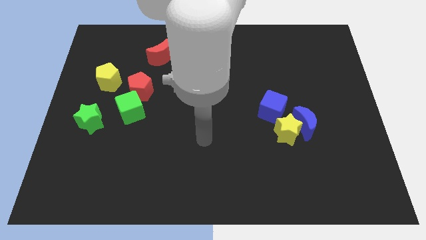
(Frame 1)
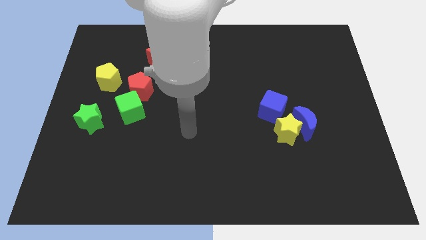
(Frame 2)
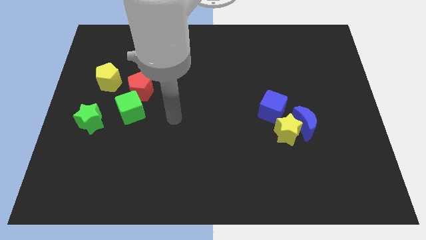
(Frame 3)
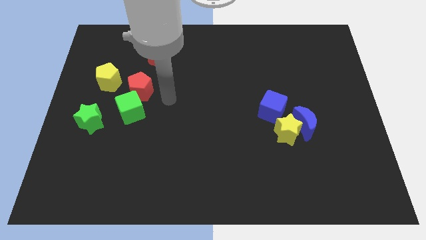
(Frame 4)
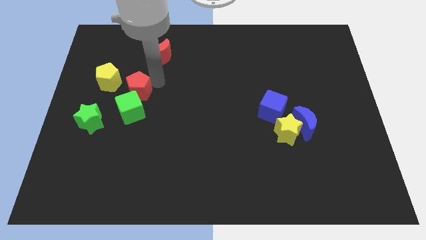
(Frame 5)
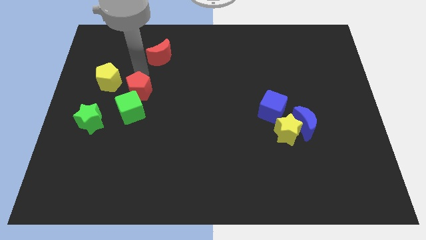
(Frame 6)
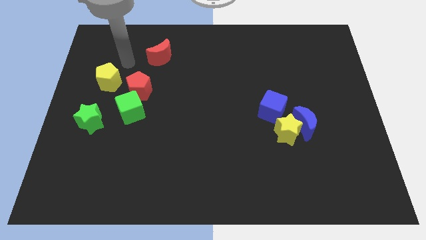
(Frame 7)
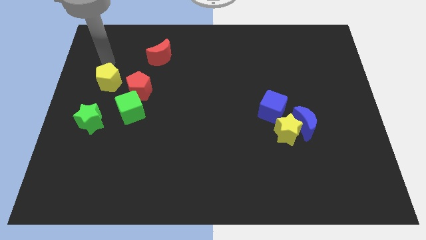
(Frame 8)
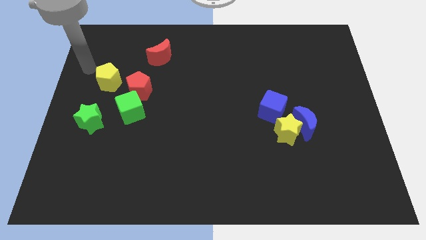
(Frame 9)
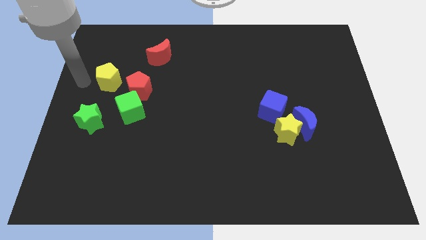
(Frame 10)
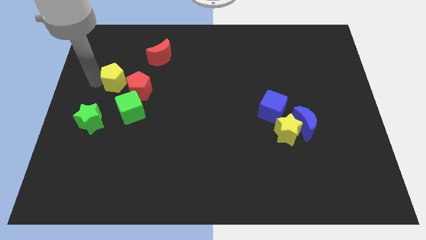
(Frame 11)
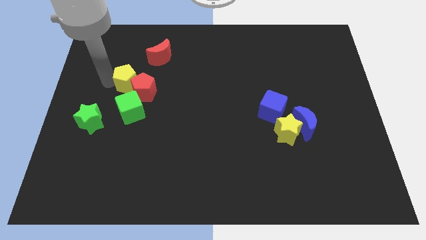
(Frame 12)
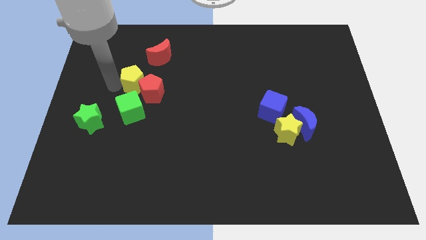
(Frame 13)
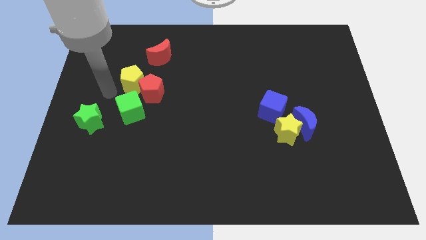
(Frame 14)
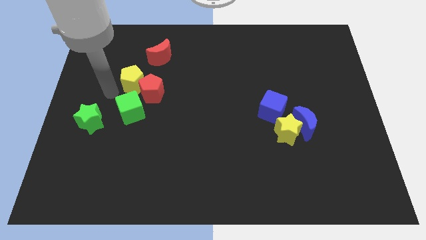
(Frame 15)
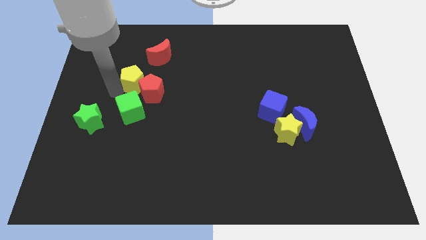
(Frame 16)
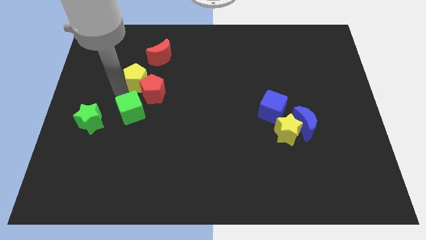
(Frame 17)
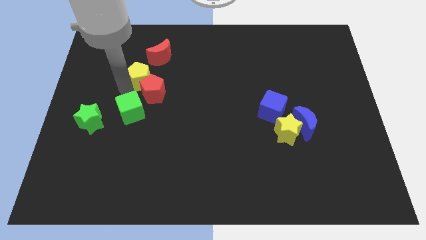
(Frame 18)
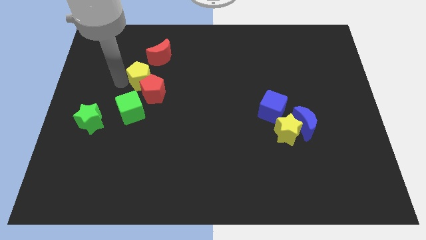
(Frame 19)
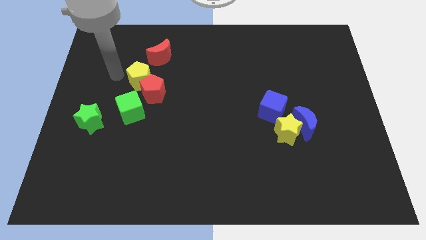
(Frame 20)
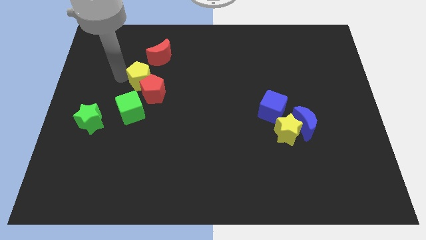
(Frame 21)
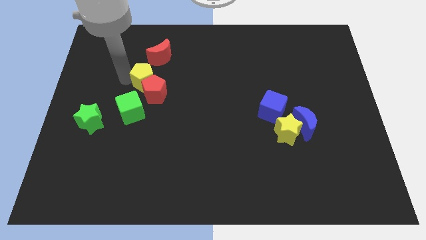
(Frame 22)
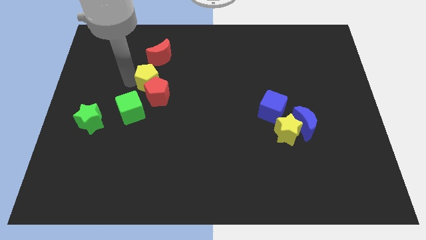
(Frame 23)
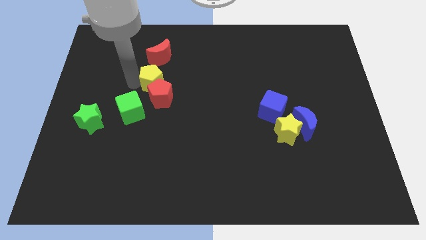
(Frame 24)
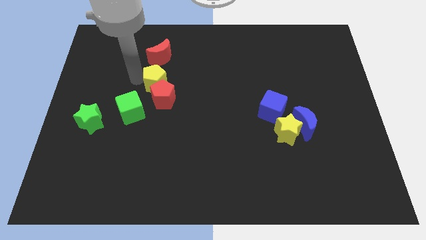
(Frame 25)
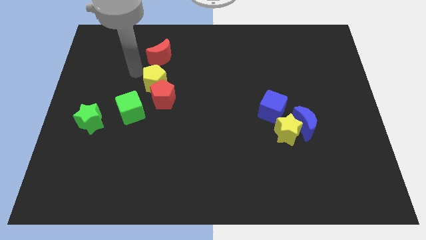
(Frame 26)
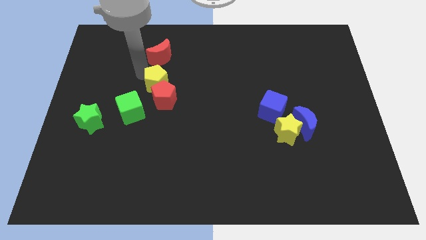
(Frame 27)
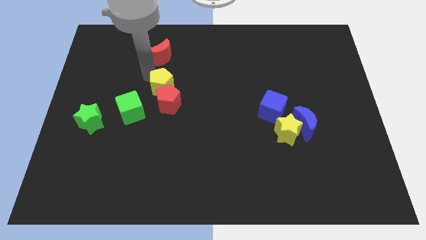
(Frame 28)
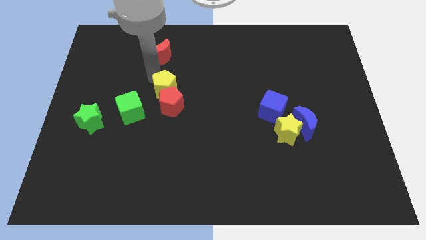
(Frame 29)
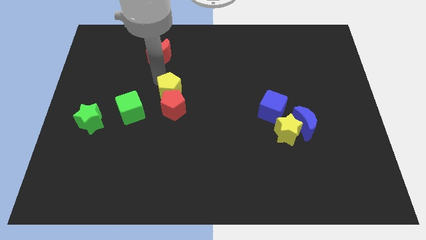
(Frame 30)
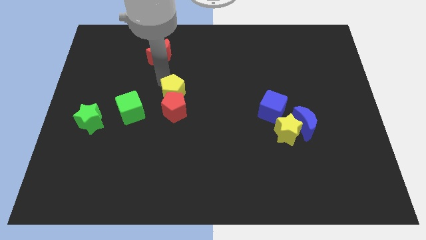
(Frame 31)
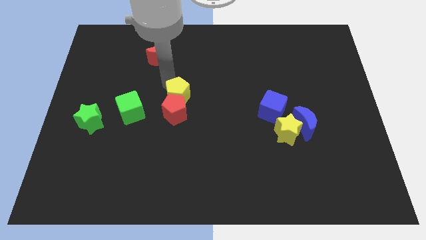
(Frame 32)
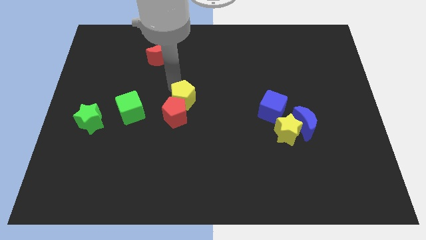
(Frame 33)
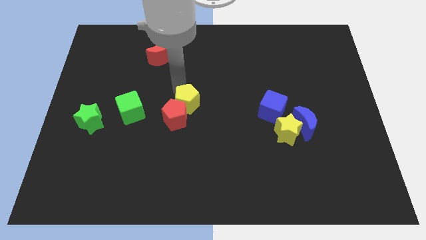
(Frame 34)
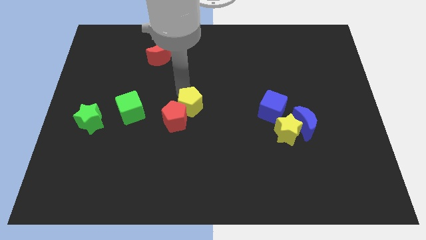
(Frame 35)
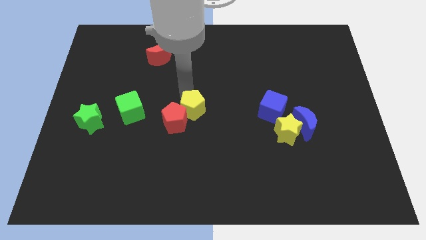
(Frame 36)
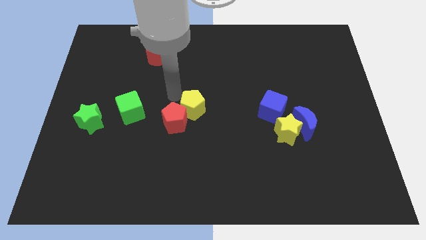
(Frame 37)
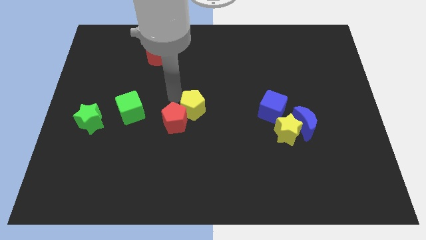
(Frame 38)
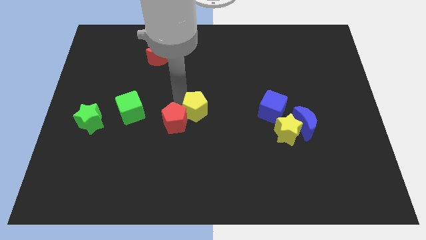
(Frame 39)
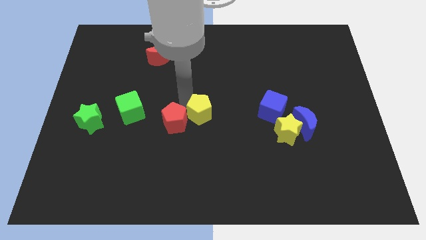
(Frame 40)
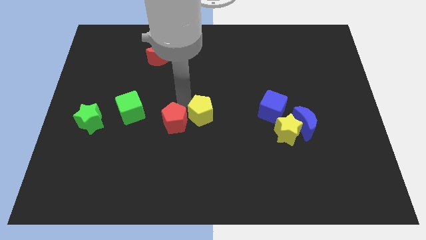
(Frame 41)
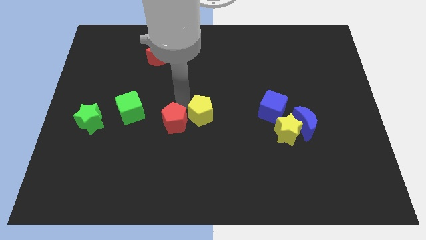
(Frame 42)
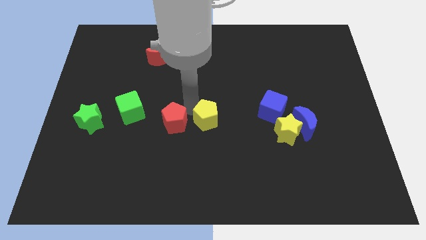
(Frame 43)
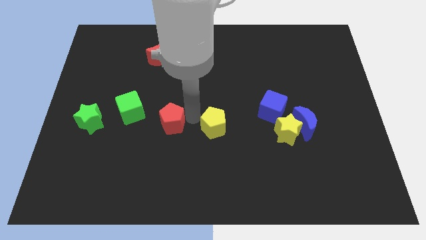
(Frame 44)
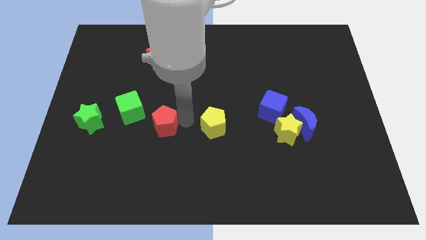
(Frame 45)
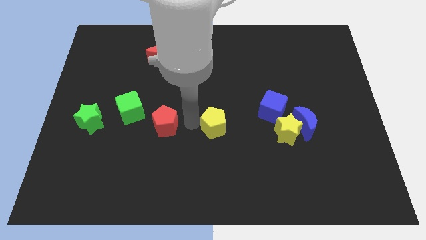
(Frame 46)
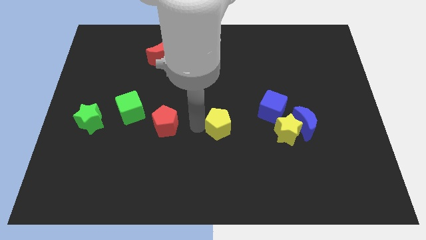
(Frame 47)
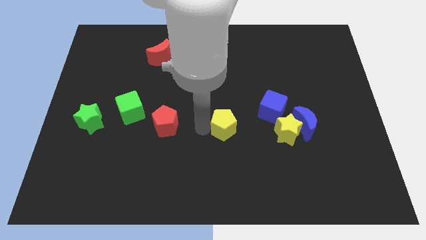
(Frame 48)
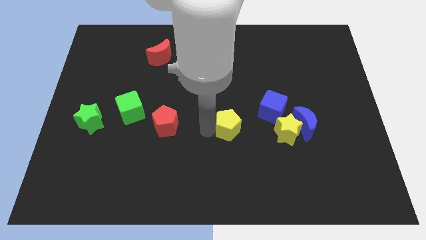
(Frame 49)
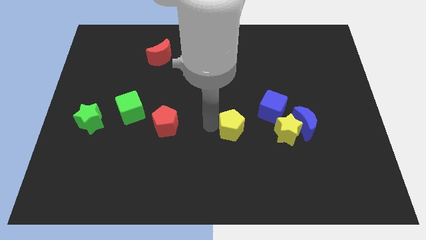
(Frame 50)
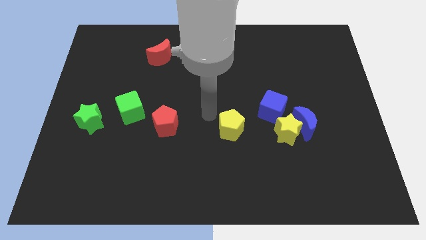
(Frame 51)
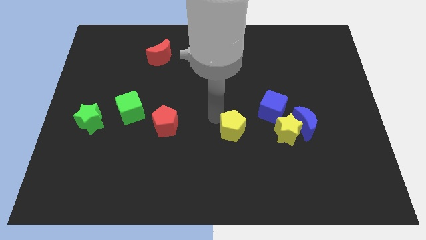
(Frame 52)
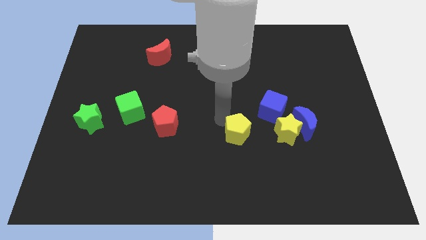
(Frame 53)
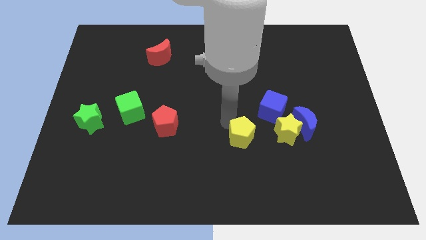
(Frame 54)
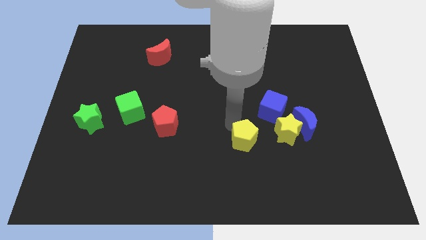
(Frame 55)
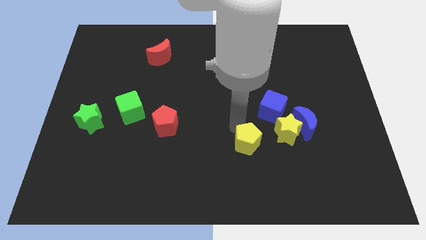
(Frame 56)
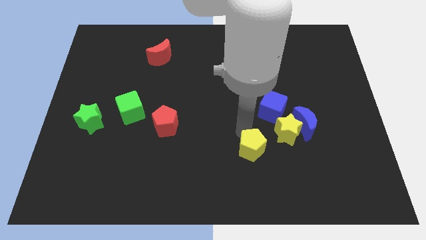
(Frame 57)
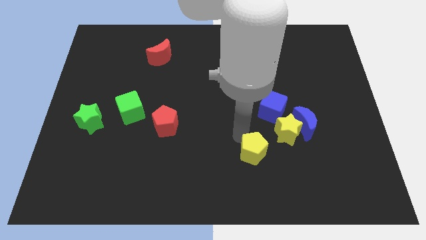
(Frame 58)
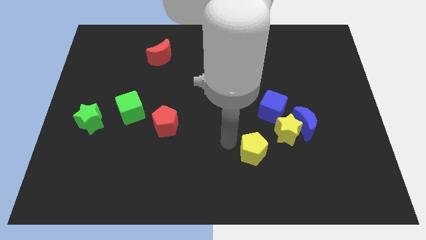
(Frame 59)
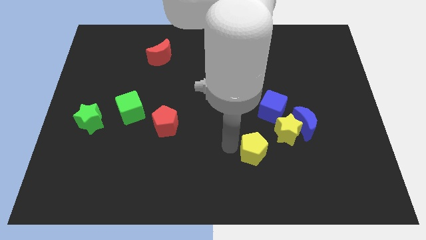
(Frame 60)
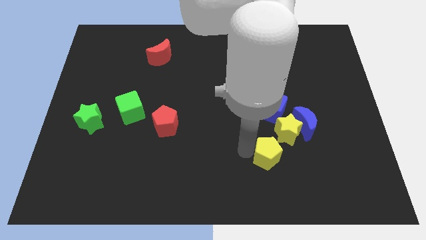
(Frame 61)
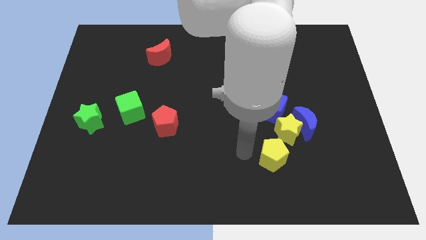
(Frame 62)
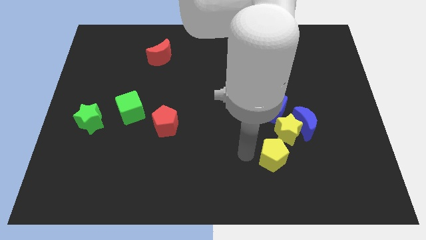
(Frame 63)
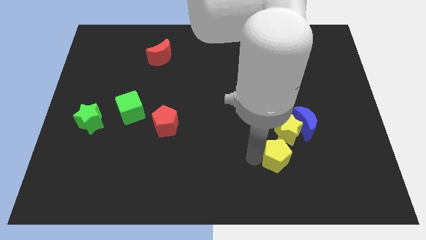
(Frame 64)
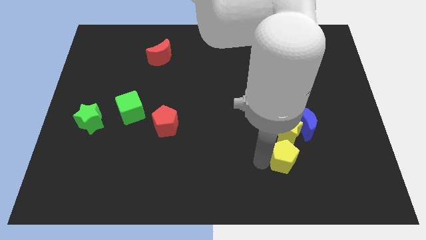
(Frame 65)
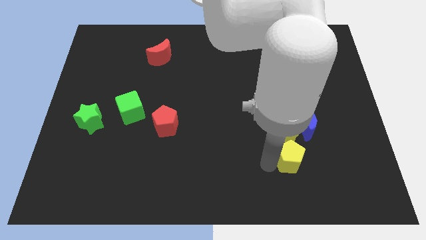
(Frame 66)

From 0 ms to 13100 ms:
put the yellow pentagon to the bottom side of the blue moon

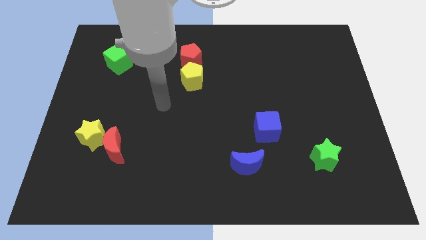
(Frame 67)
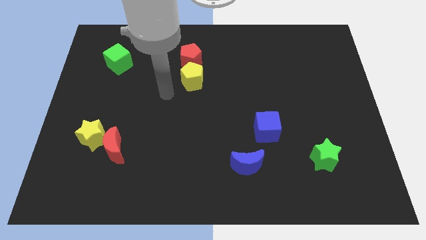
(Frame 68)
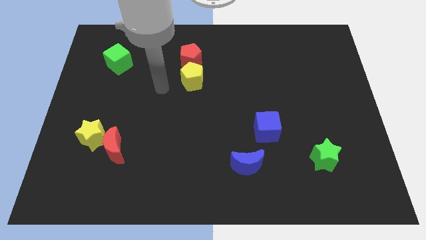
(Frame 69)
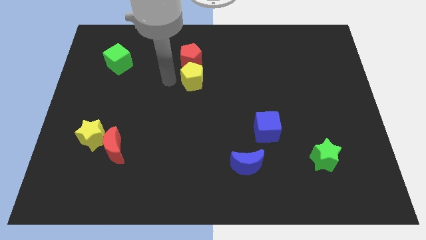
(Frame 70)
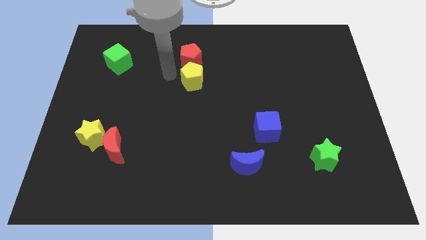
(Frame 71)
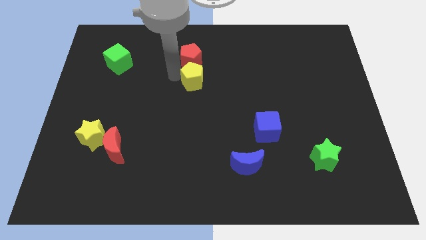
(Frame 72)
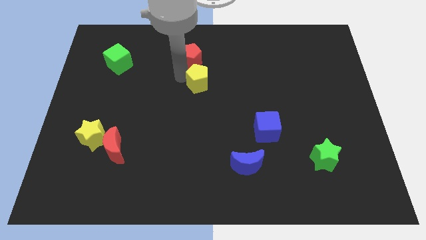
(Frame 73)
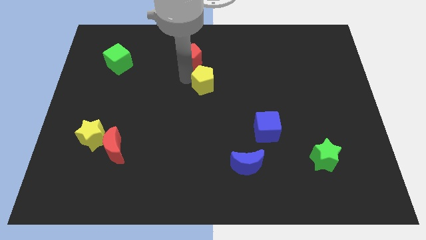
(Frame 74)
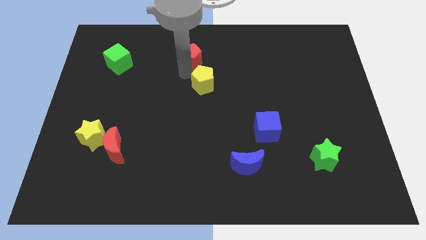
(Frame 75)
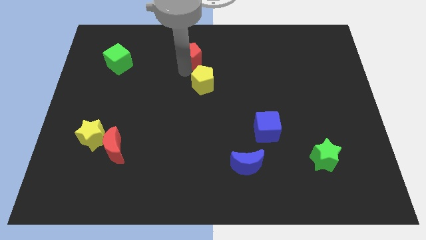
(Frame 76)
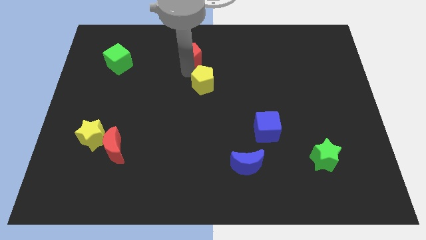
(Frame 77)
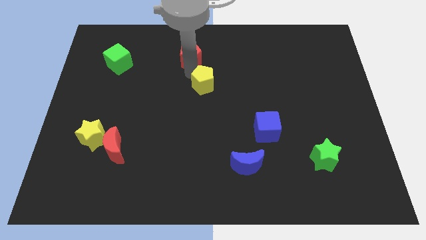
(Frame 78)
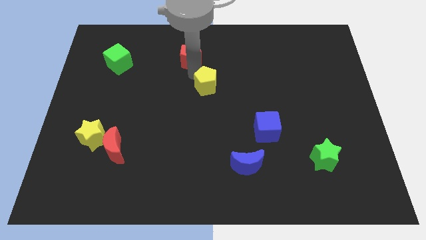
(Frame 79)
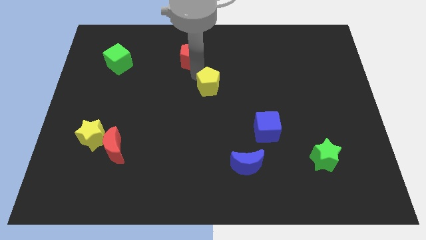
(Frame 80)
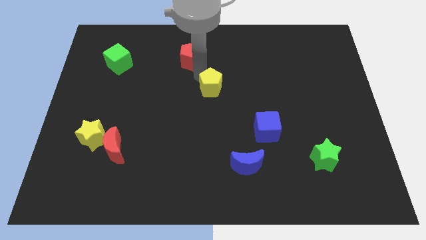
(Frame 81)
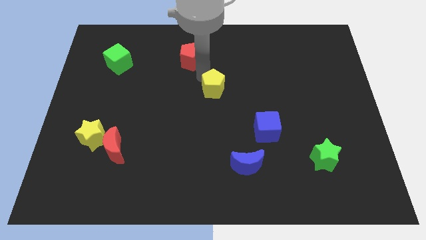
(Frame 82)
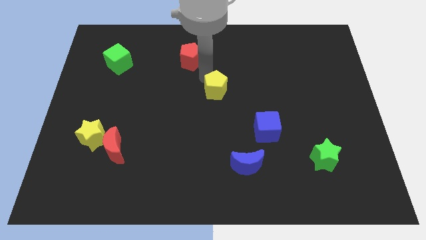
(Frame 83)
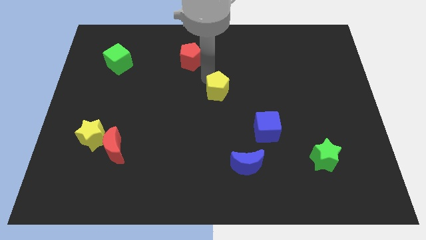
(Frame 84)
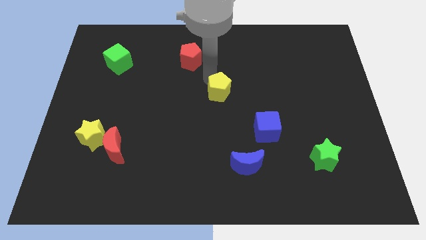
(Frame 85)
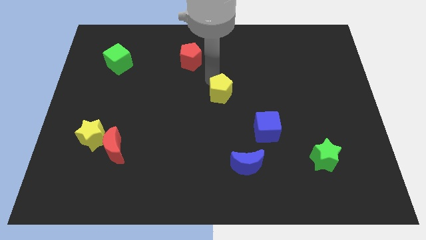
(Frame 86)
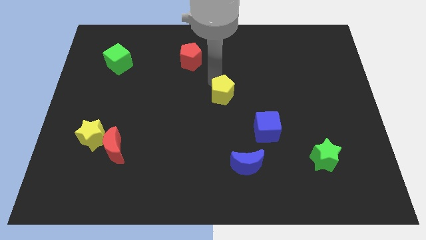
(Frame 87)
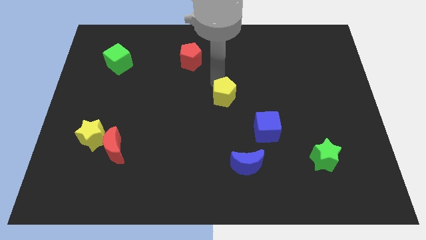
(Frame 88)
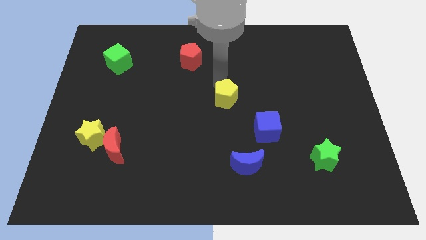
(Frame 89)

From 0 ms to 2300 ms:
put the yellow pentagon to the top left side of the blue cube
